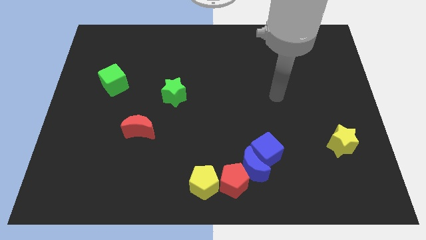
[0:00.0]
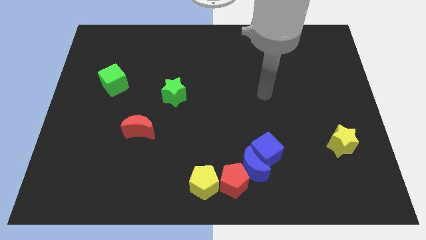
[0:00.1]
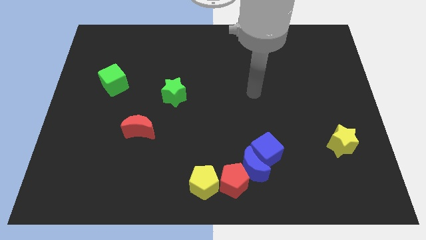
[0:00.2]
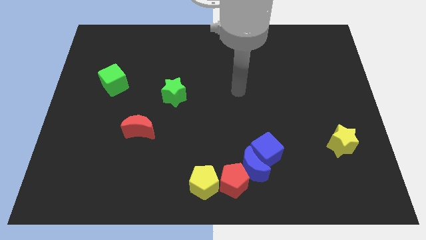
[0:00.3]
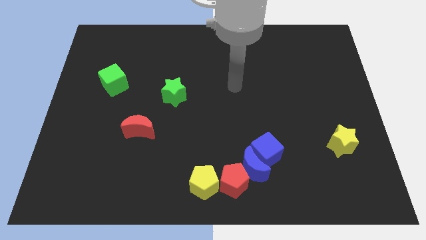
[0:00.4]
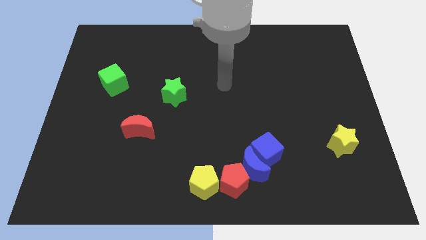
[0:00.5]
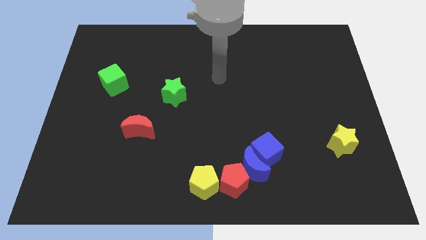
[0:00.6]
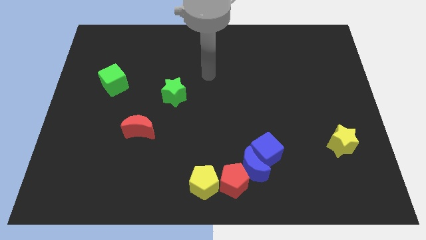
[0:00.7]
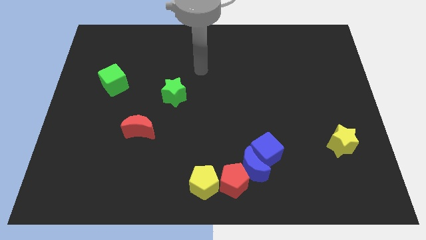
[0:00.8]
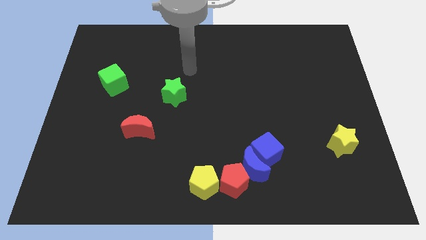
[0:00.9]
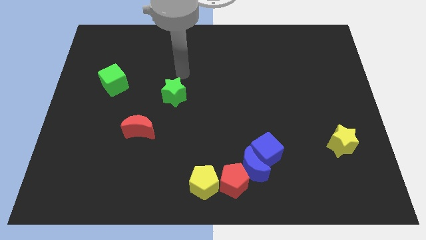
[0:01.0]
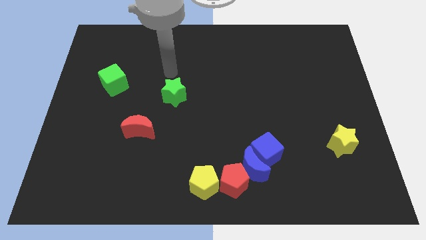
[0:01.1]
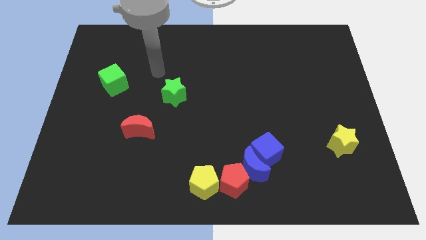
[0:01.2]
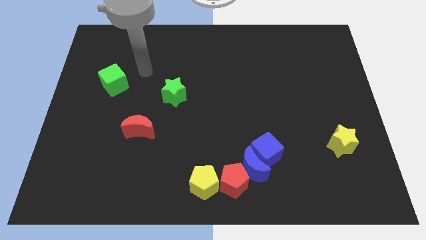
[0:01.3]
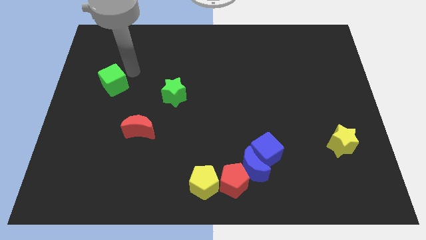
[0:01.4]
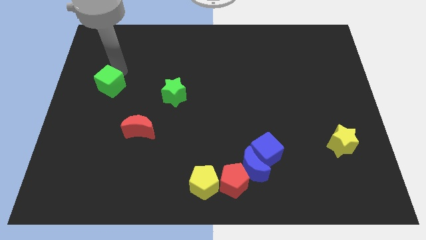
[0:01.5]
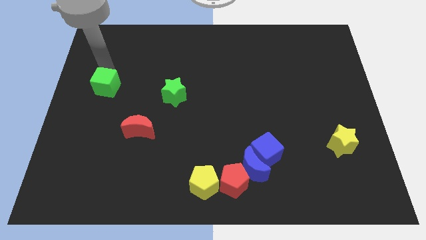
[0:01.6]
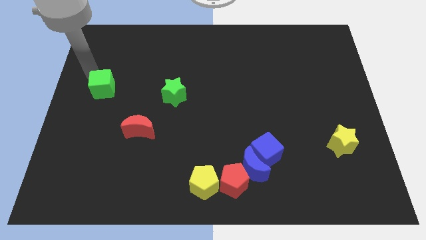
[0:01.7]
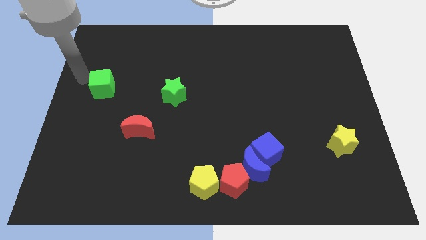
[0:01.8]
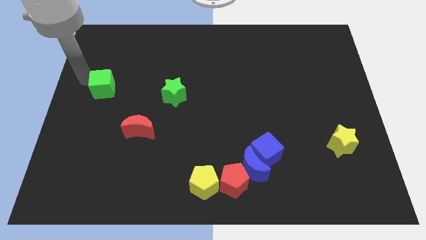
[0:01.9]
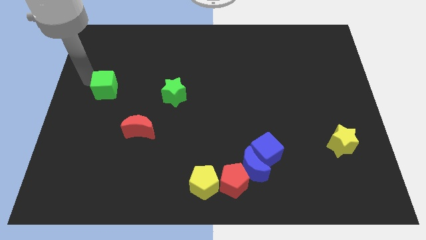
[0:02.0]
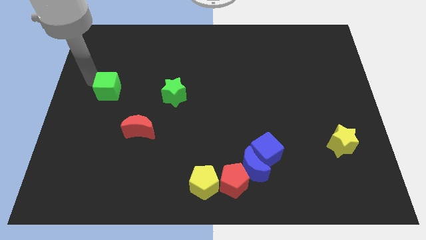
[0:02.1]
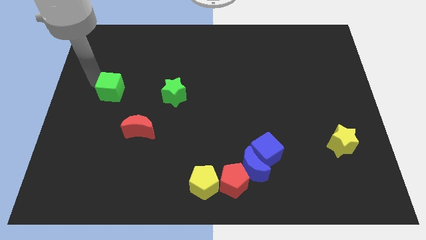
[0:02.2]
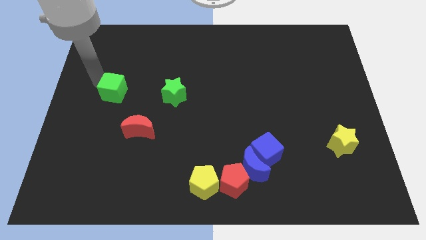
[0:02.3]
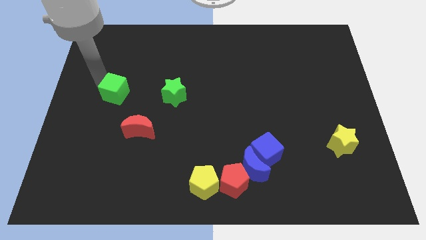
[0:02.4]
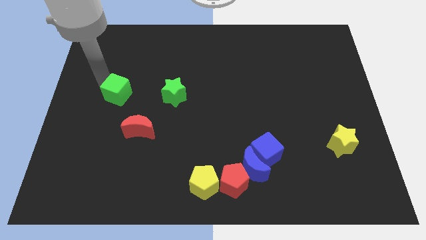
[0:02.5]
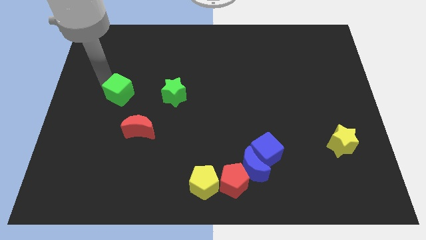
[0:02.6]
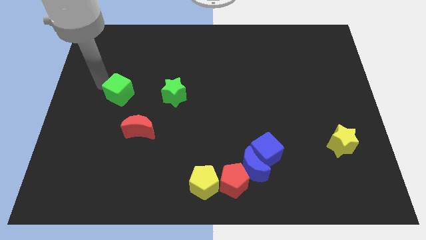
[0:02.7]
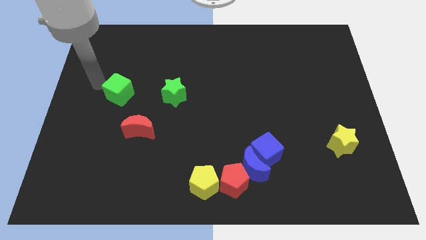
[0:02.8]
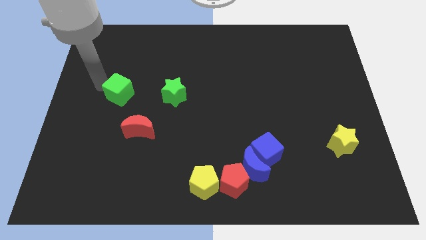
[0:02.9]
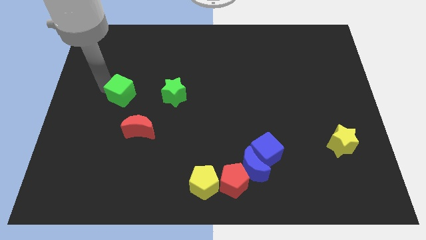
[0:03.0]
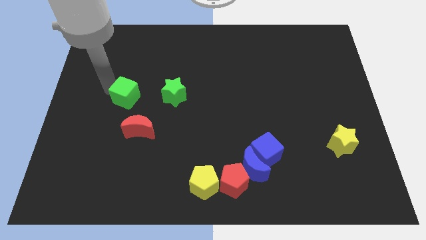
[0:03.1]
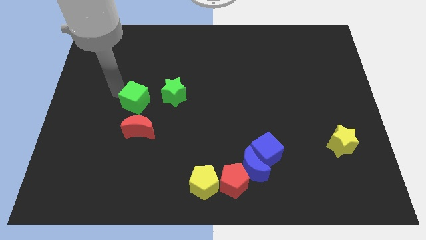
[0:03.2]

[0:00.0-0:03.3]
slide the green cube diagonally down and to the left of the green star

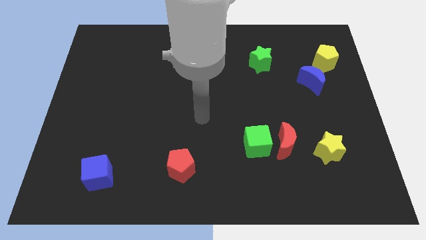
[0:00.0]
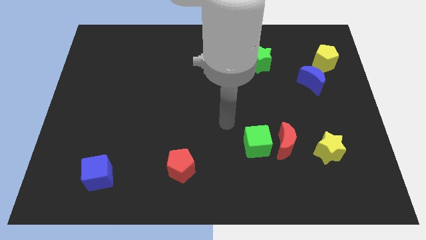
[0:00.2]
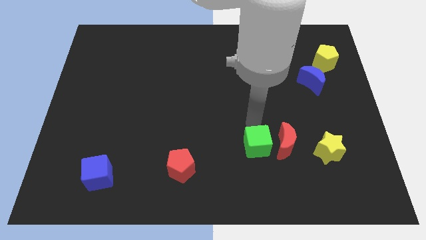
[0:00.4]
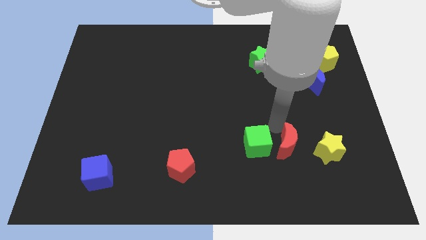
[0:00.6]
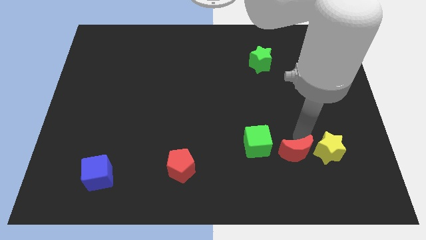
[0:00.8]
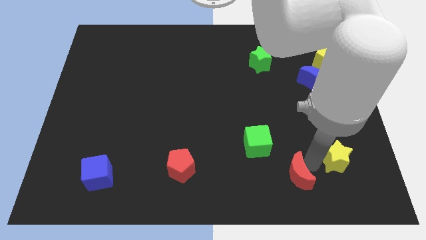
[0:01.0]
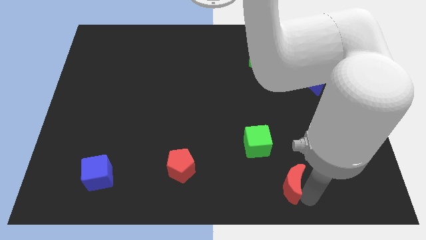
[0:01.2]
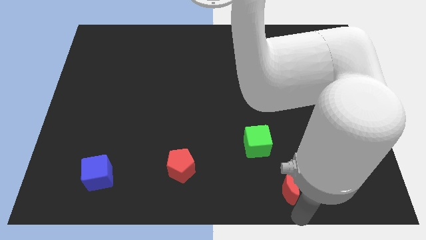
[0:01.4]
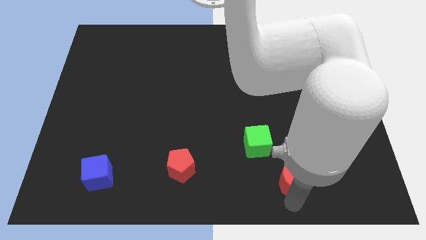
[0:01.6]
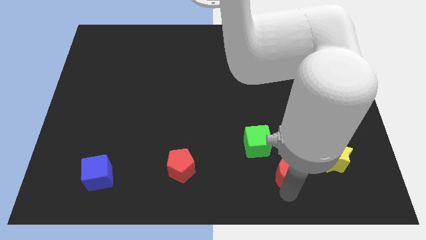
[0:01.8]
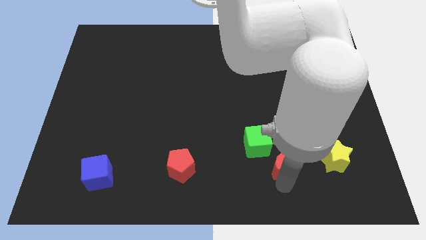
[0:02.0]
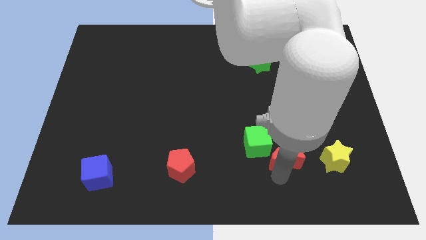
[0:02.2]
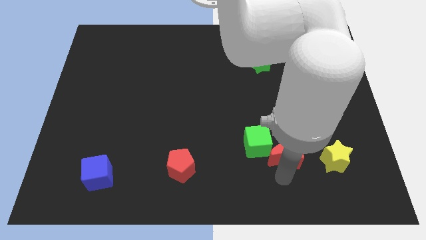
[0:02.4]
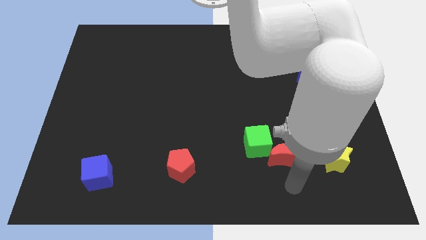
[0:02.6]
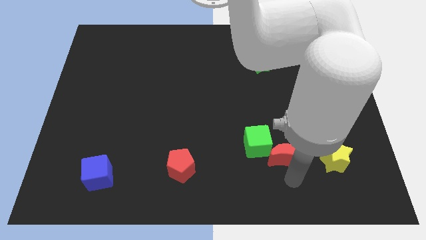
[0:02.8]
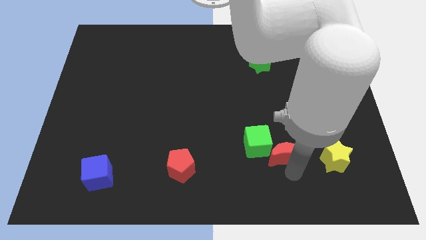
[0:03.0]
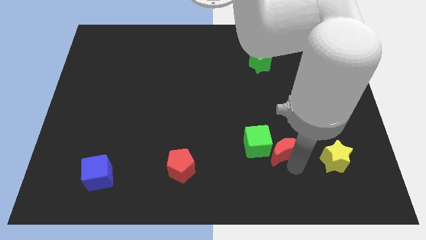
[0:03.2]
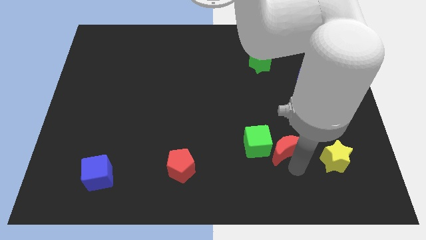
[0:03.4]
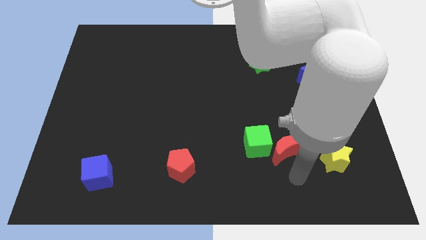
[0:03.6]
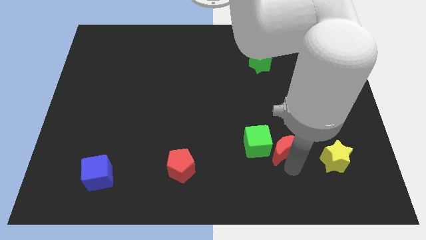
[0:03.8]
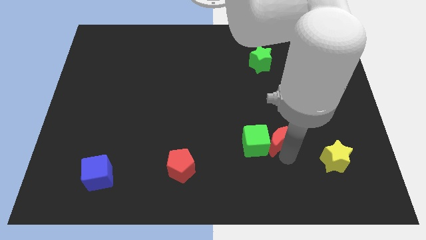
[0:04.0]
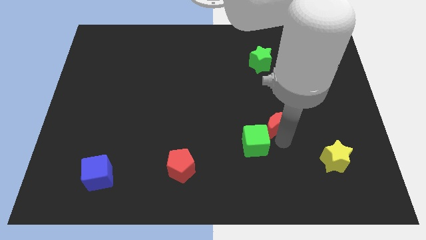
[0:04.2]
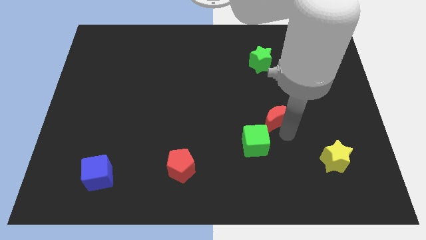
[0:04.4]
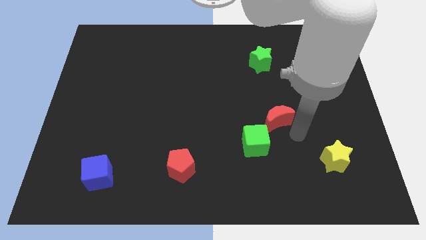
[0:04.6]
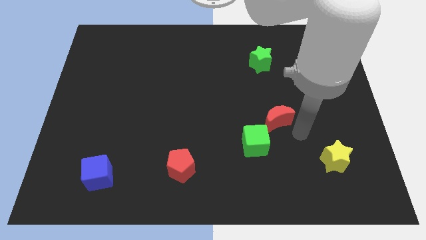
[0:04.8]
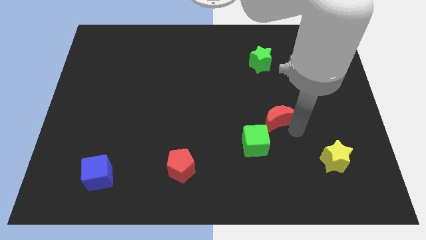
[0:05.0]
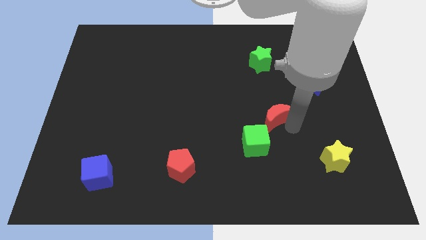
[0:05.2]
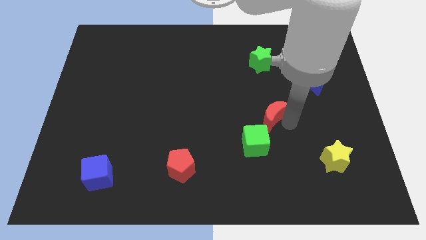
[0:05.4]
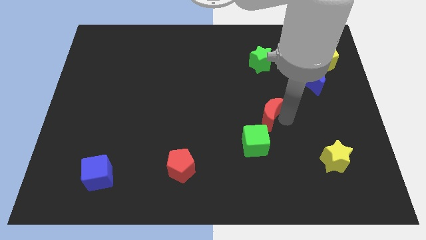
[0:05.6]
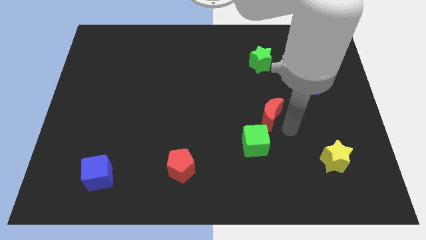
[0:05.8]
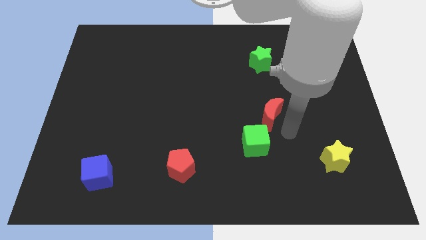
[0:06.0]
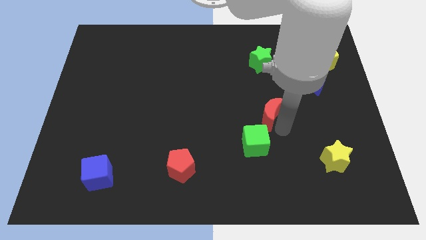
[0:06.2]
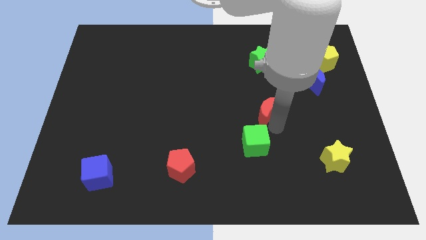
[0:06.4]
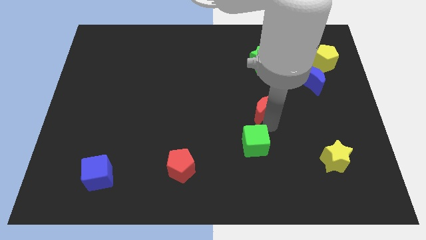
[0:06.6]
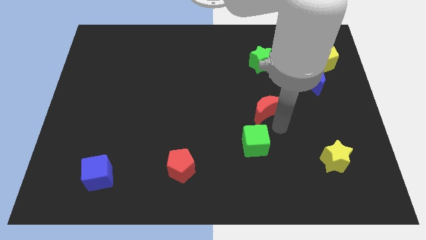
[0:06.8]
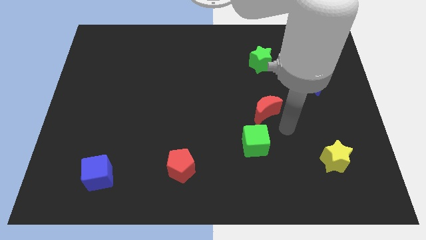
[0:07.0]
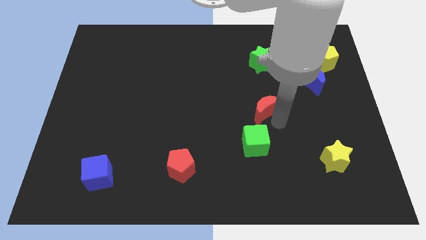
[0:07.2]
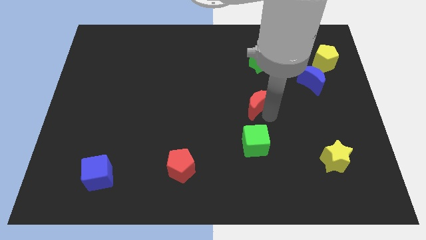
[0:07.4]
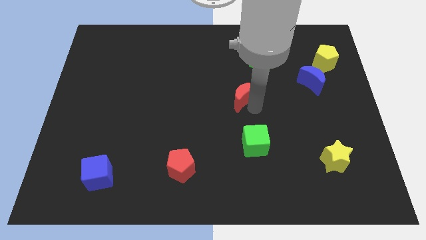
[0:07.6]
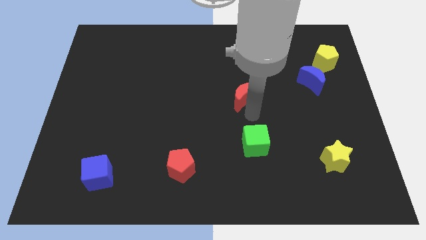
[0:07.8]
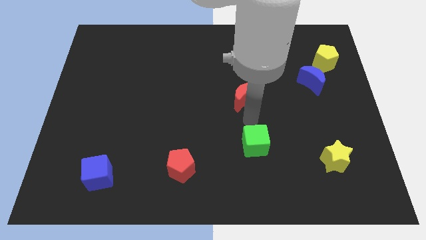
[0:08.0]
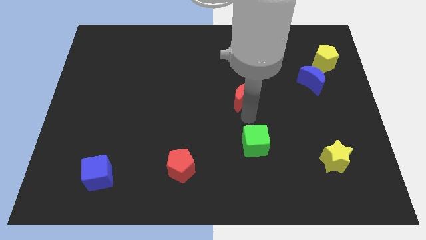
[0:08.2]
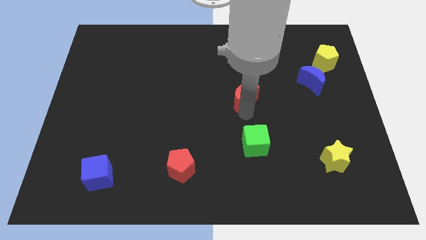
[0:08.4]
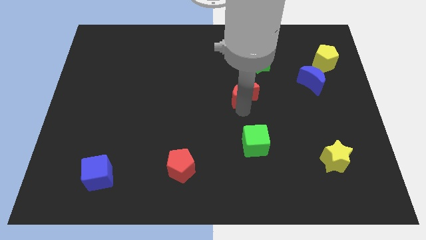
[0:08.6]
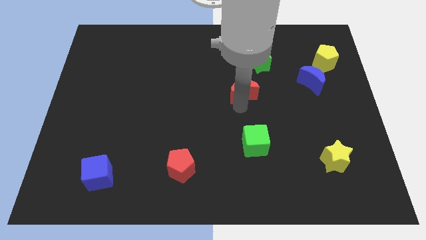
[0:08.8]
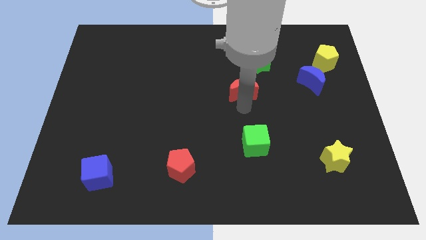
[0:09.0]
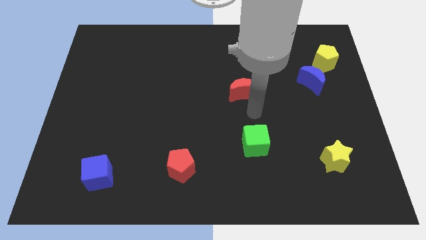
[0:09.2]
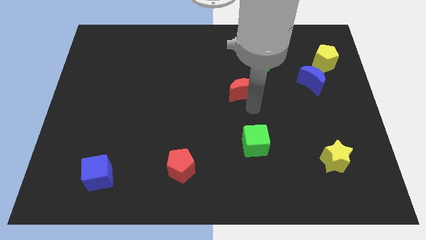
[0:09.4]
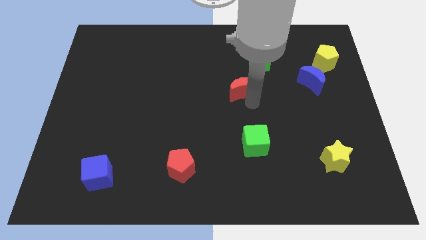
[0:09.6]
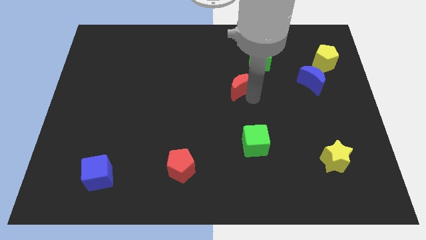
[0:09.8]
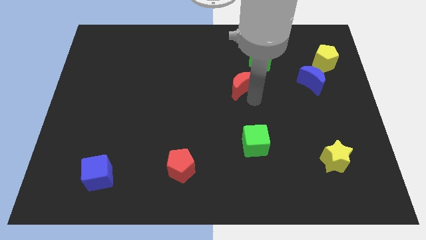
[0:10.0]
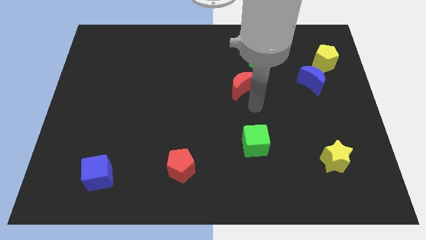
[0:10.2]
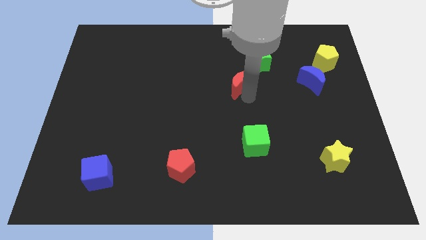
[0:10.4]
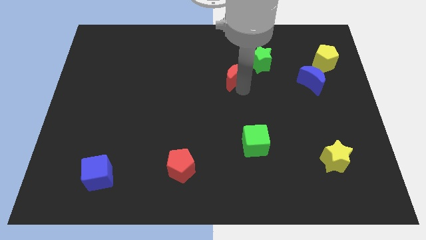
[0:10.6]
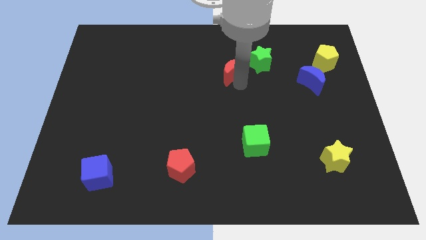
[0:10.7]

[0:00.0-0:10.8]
move the red moon to the left of the green star
